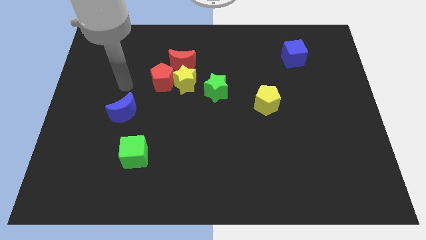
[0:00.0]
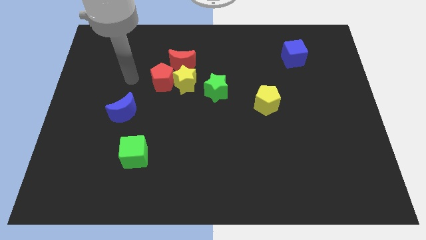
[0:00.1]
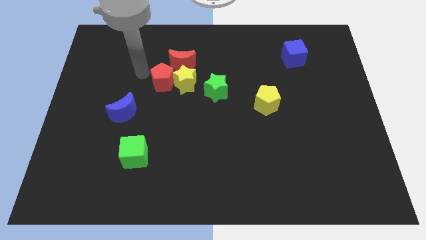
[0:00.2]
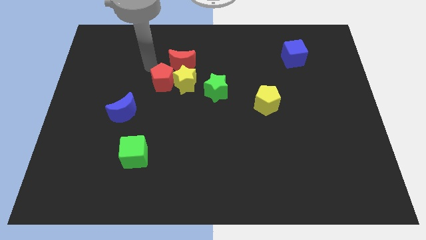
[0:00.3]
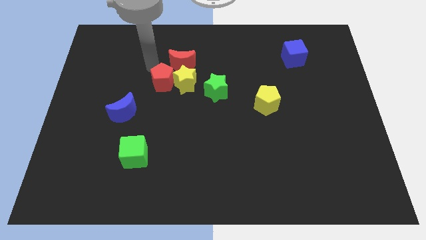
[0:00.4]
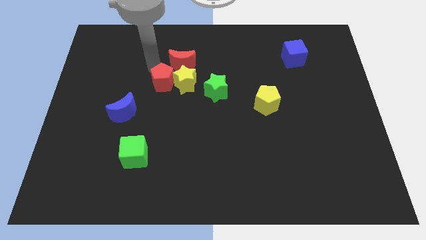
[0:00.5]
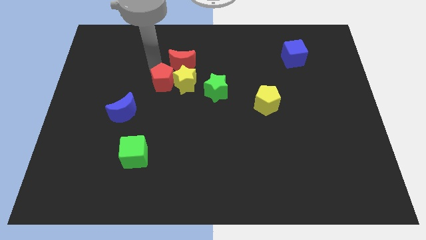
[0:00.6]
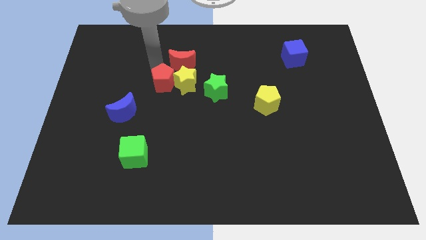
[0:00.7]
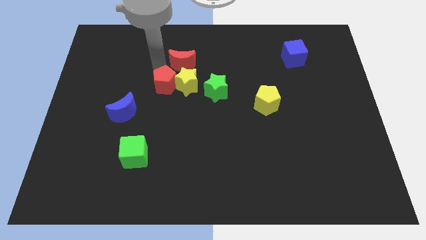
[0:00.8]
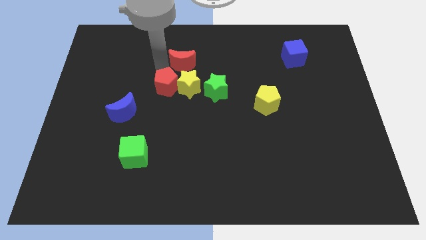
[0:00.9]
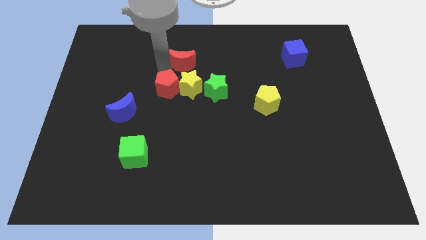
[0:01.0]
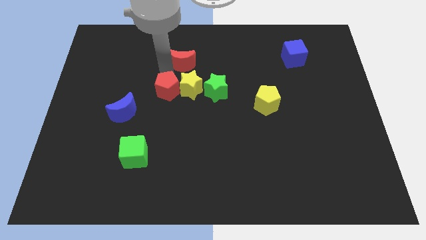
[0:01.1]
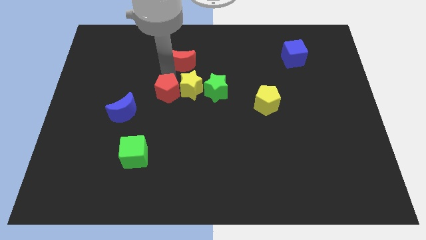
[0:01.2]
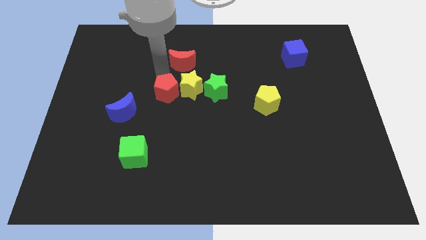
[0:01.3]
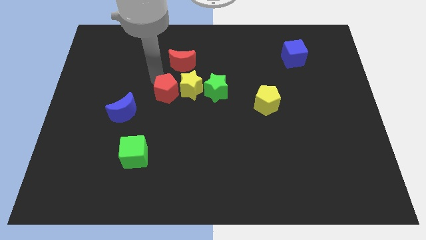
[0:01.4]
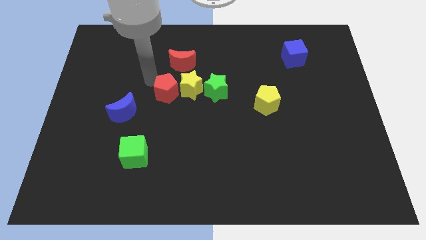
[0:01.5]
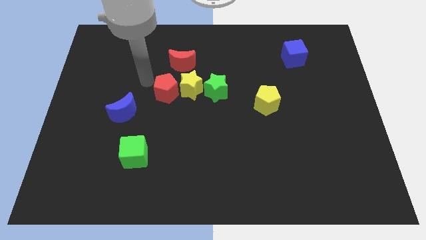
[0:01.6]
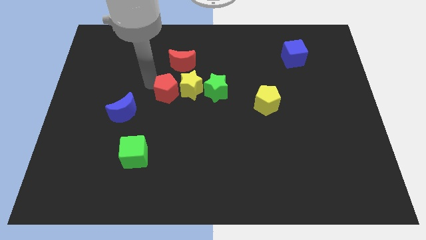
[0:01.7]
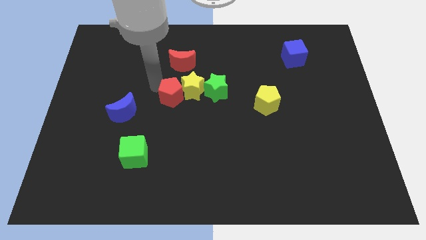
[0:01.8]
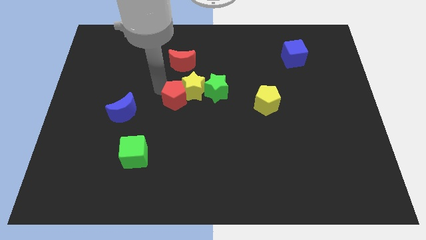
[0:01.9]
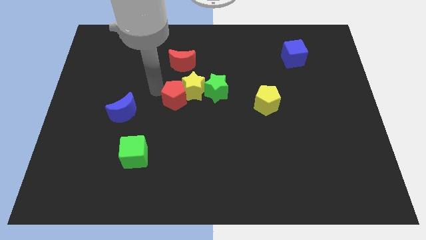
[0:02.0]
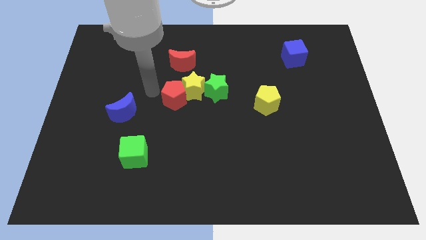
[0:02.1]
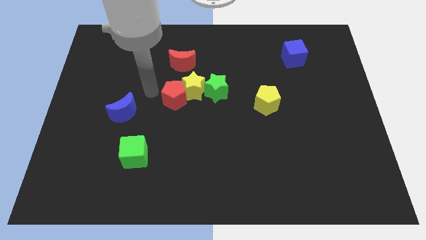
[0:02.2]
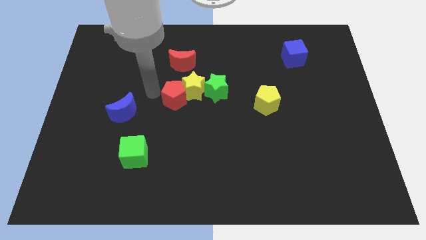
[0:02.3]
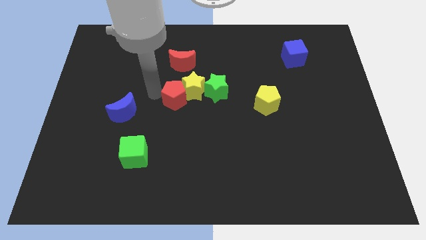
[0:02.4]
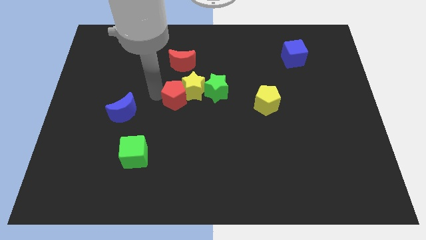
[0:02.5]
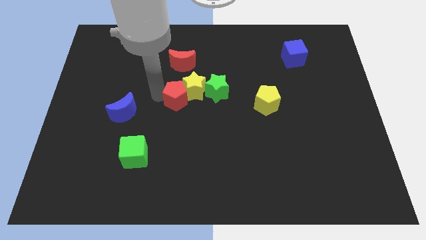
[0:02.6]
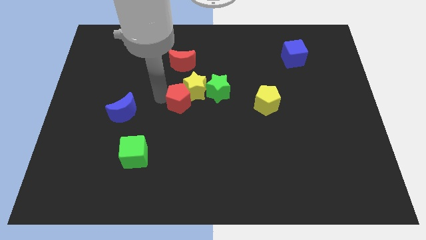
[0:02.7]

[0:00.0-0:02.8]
slide the red pentagon down and right diagonally a bit

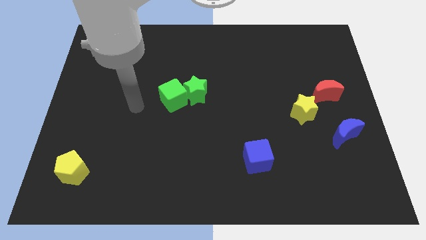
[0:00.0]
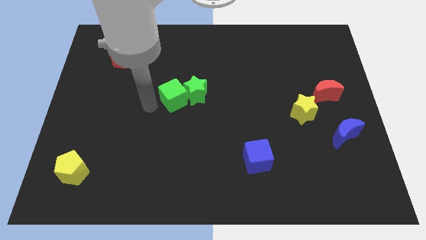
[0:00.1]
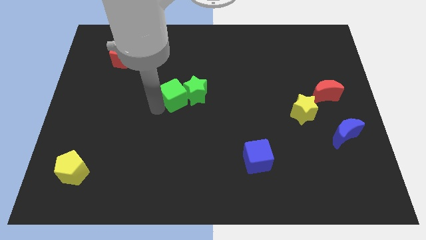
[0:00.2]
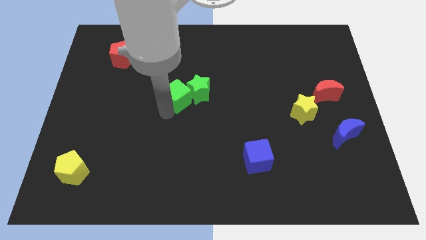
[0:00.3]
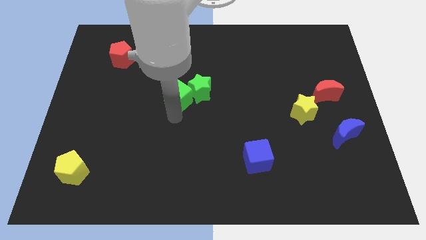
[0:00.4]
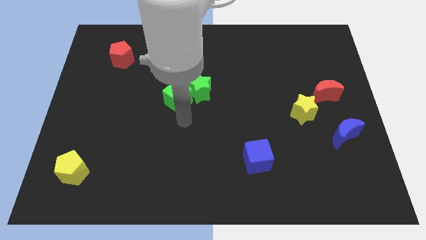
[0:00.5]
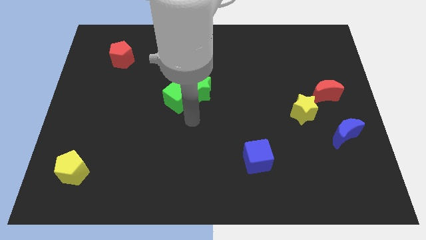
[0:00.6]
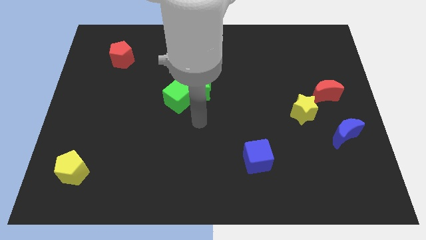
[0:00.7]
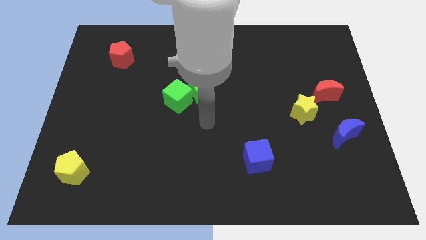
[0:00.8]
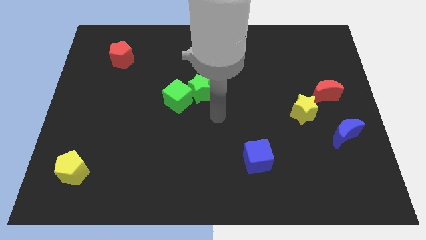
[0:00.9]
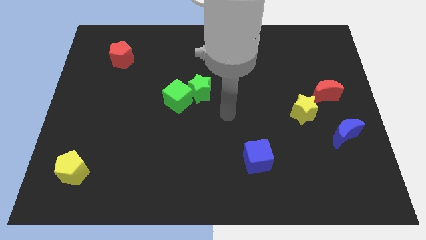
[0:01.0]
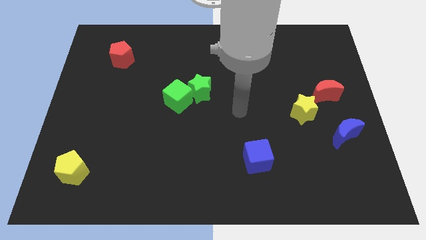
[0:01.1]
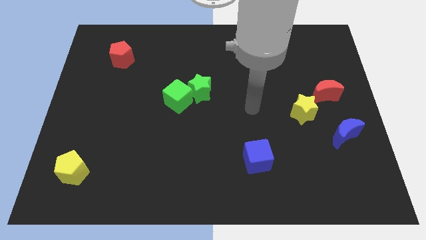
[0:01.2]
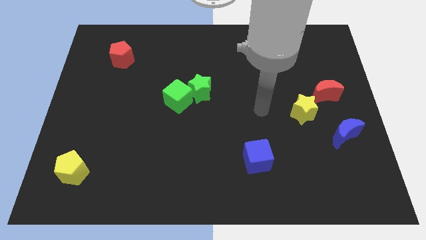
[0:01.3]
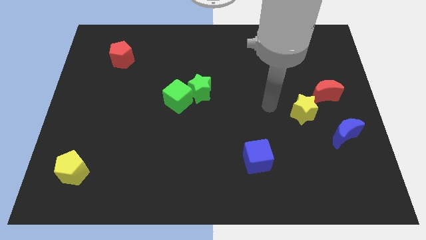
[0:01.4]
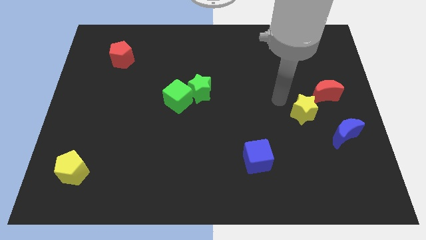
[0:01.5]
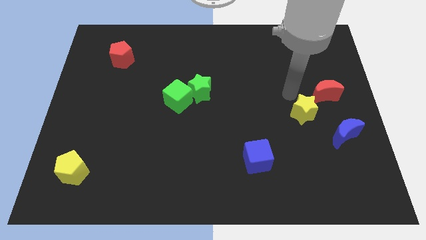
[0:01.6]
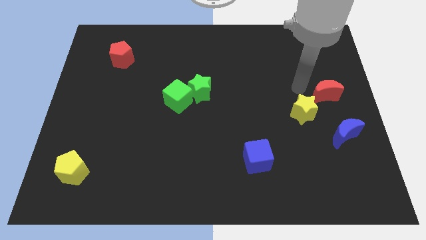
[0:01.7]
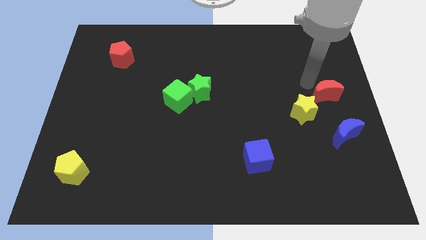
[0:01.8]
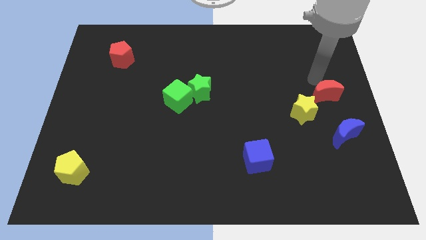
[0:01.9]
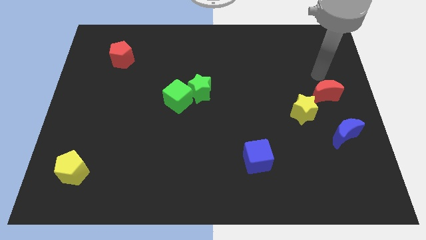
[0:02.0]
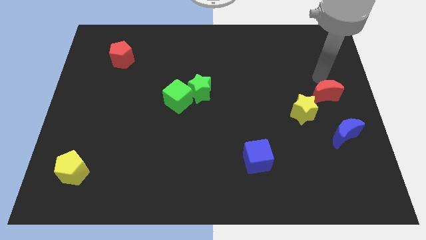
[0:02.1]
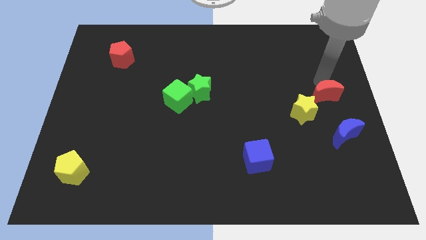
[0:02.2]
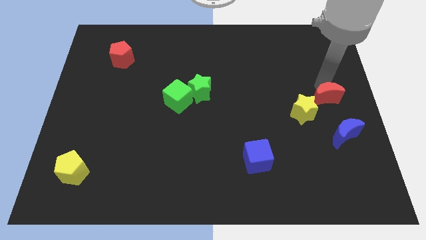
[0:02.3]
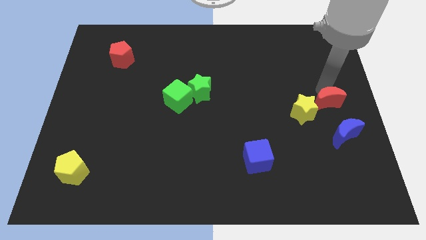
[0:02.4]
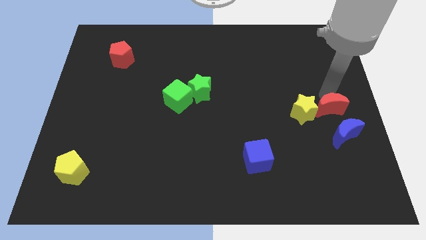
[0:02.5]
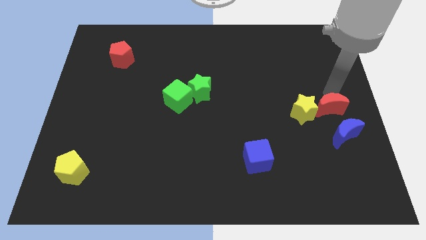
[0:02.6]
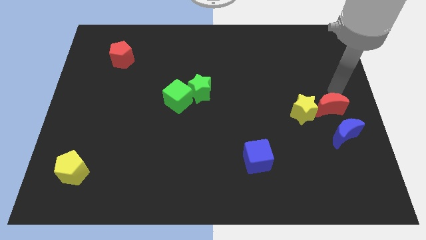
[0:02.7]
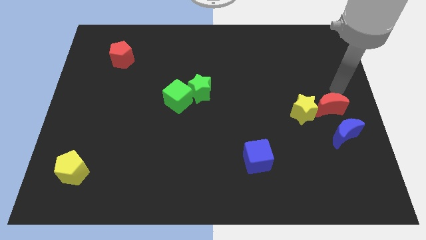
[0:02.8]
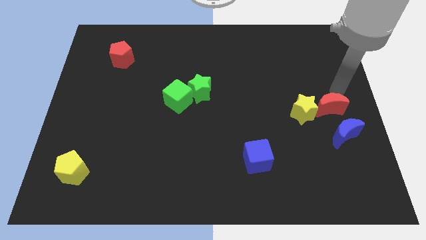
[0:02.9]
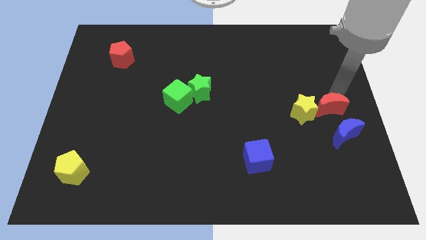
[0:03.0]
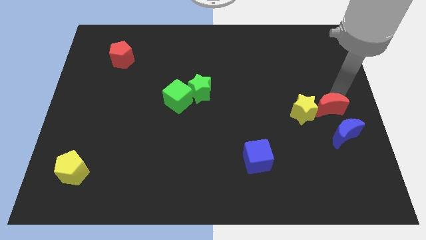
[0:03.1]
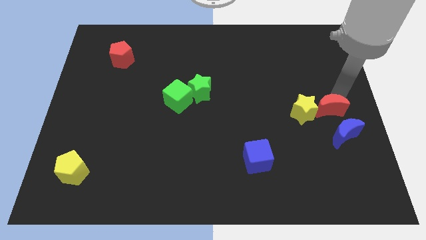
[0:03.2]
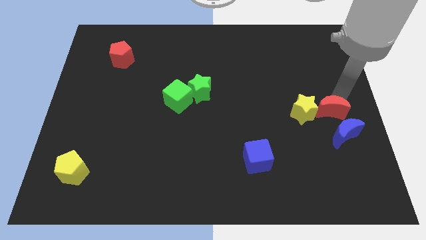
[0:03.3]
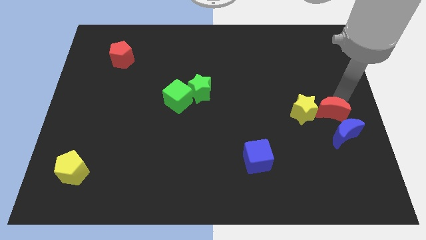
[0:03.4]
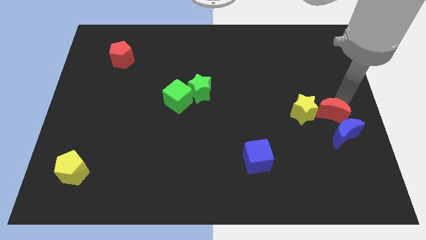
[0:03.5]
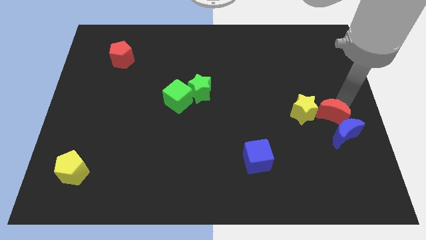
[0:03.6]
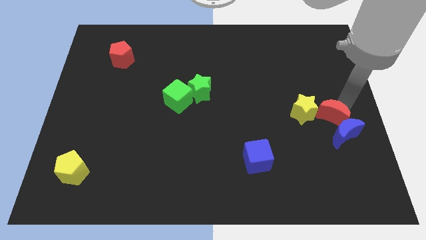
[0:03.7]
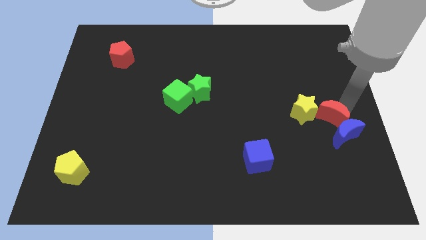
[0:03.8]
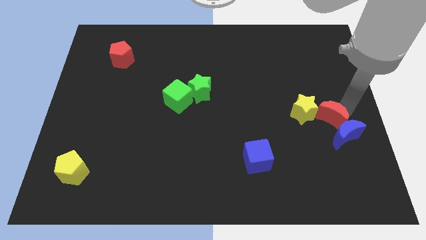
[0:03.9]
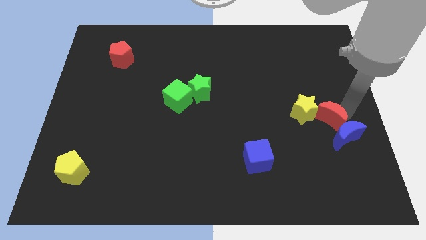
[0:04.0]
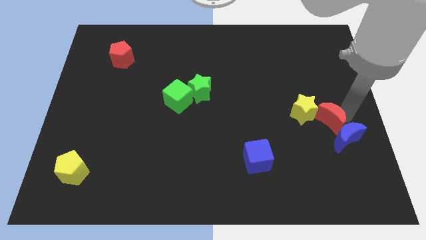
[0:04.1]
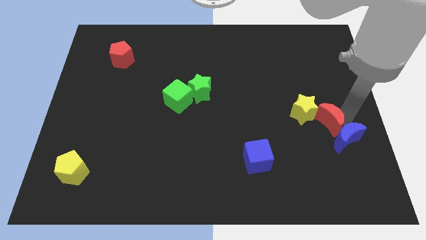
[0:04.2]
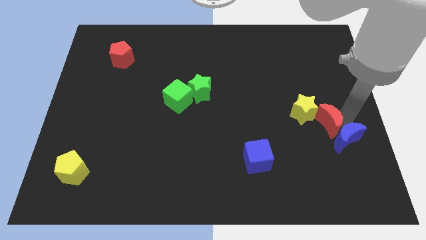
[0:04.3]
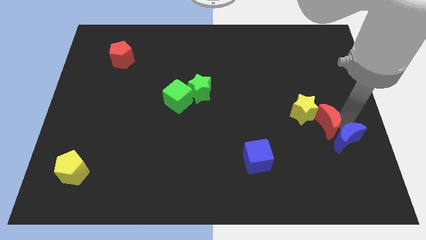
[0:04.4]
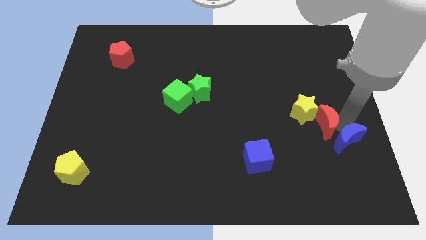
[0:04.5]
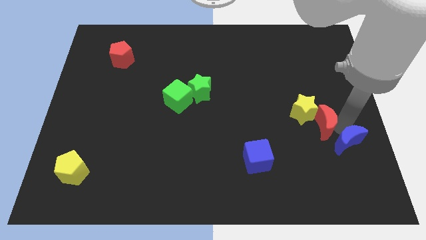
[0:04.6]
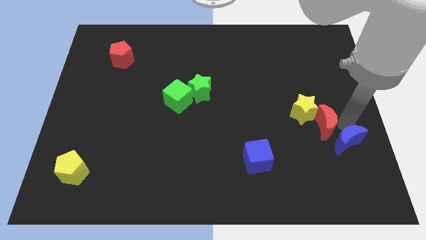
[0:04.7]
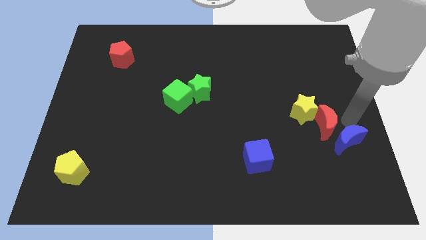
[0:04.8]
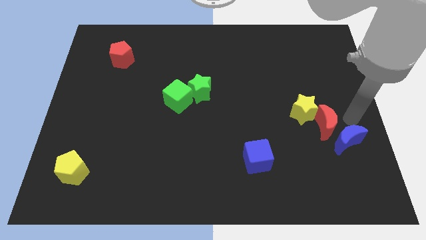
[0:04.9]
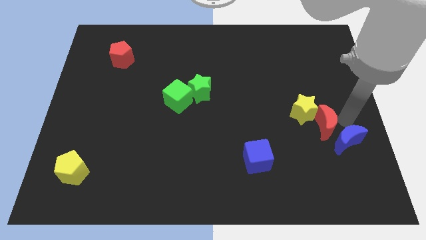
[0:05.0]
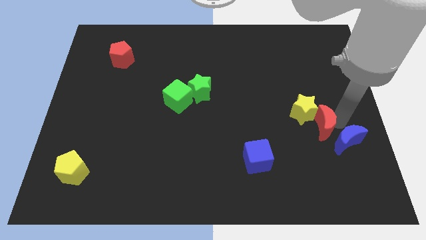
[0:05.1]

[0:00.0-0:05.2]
slide the red moon down and to the left diagonally a little bit
